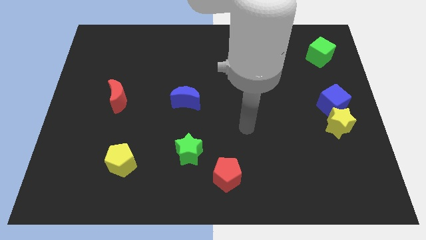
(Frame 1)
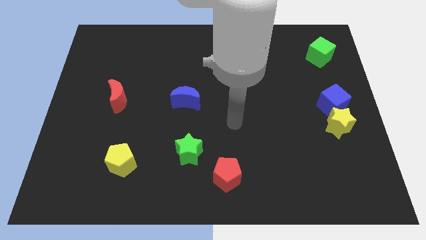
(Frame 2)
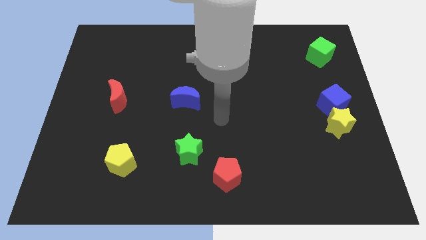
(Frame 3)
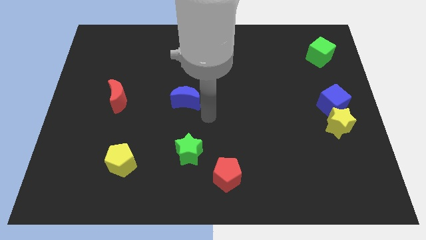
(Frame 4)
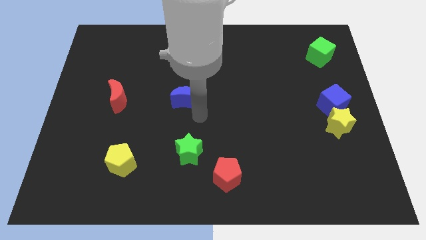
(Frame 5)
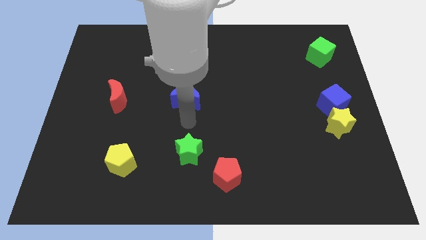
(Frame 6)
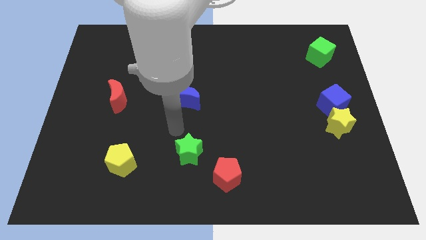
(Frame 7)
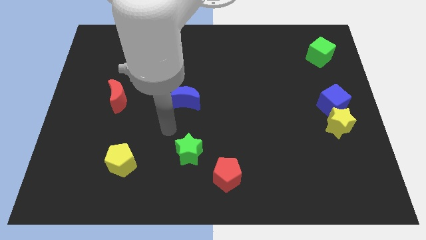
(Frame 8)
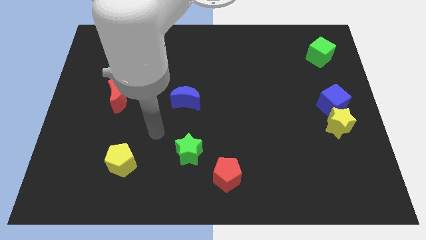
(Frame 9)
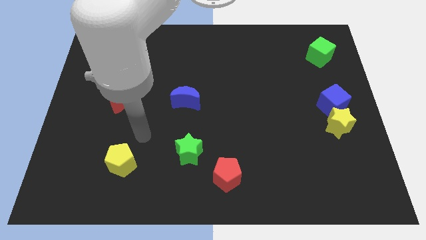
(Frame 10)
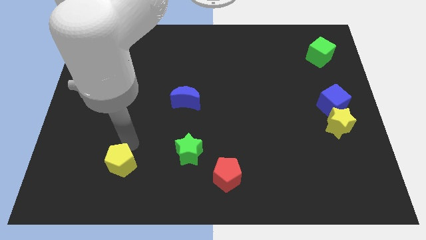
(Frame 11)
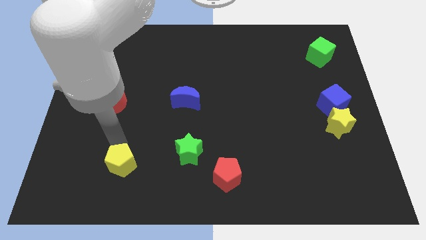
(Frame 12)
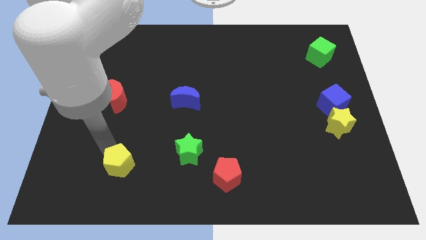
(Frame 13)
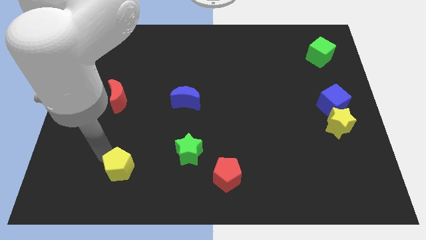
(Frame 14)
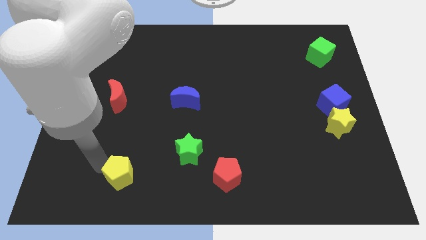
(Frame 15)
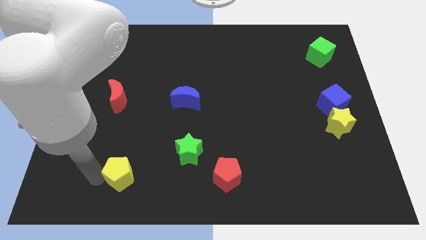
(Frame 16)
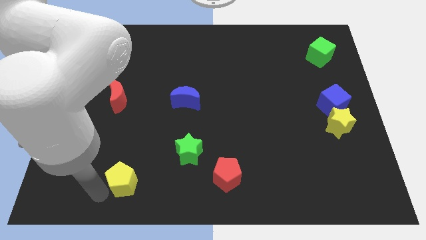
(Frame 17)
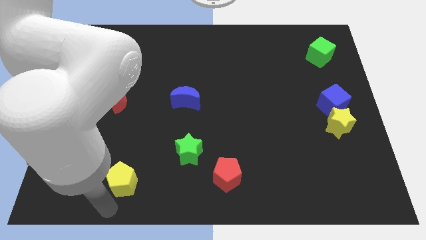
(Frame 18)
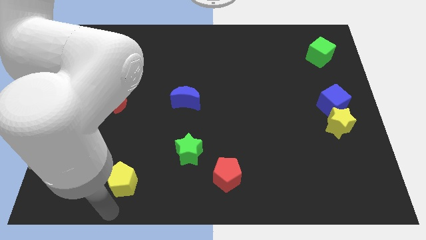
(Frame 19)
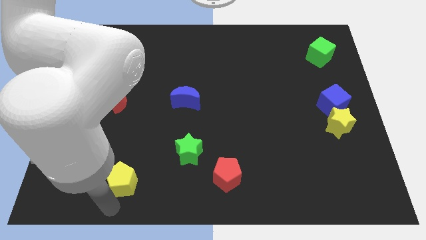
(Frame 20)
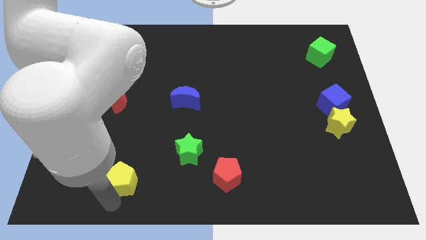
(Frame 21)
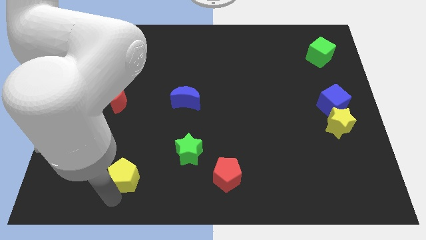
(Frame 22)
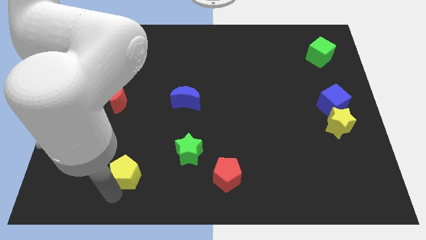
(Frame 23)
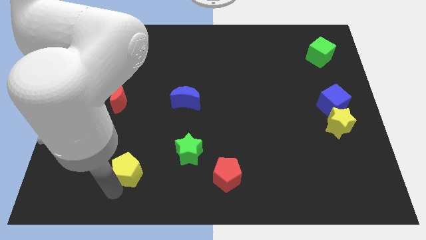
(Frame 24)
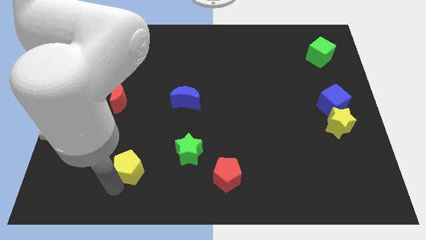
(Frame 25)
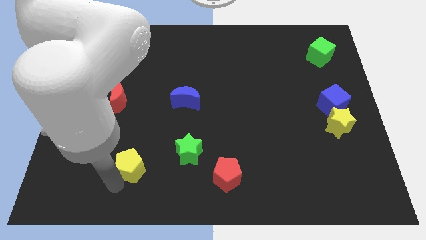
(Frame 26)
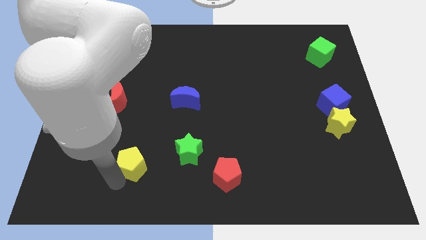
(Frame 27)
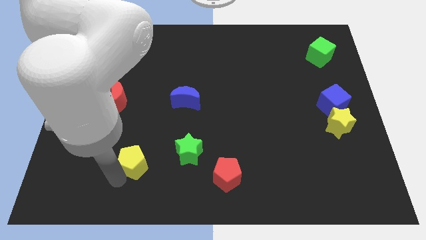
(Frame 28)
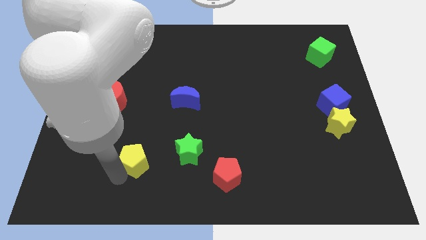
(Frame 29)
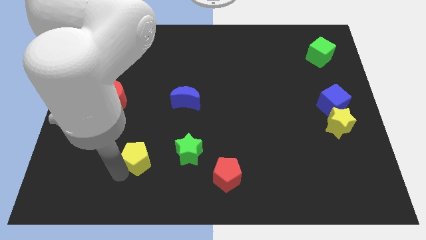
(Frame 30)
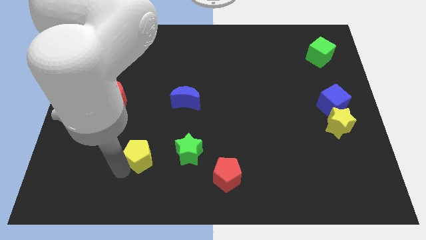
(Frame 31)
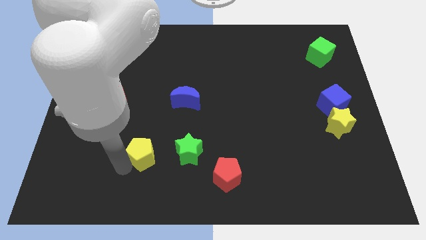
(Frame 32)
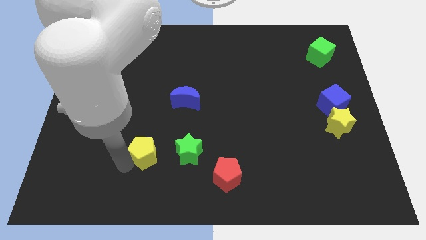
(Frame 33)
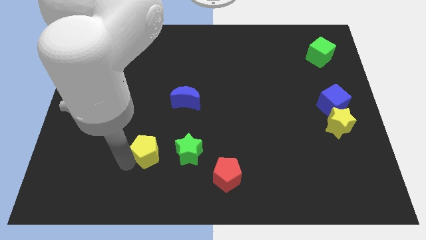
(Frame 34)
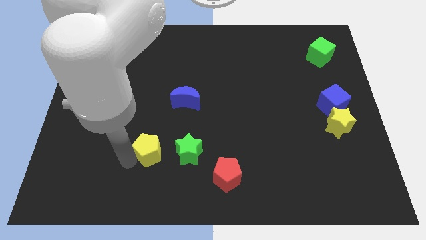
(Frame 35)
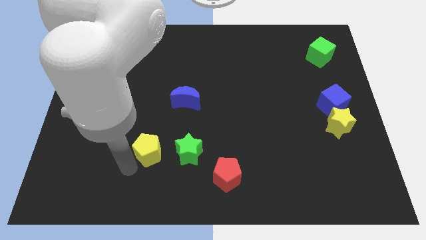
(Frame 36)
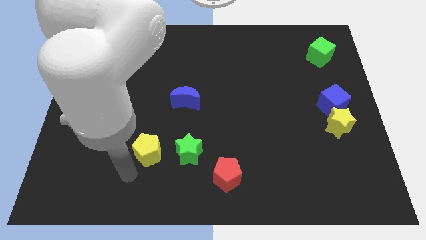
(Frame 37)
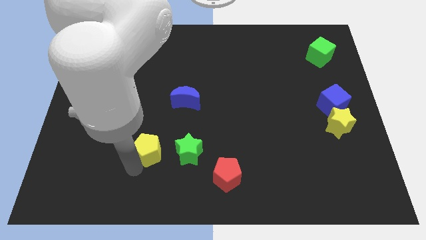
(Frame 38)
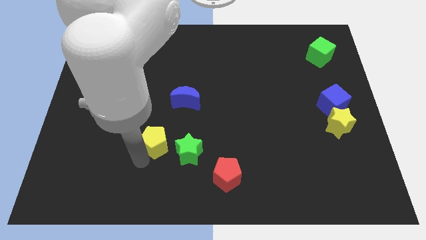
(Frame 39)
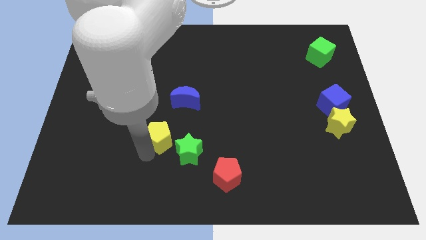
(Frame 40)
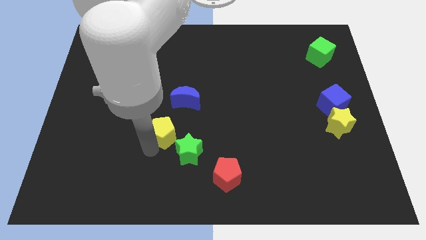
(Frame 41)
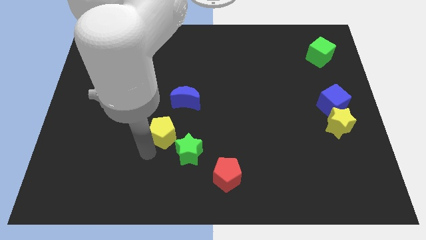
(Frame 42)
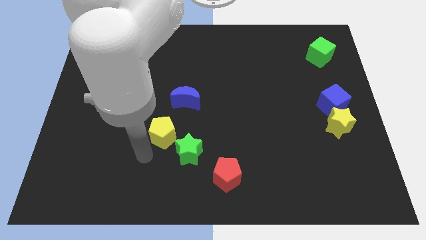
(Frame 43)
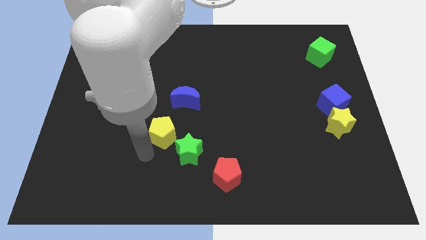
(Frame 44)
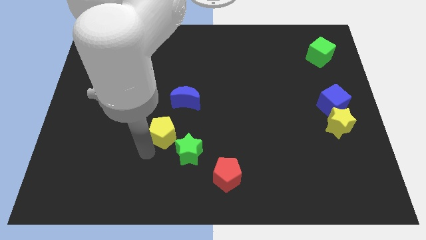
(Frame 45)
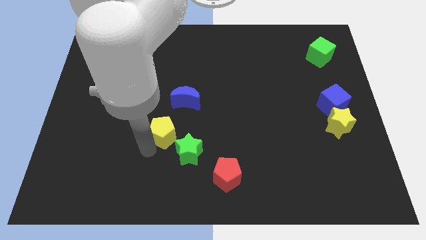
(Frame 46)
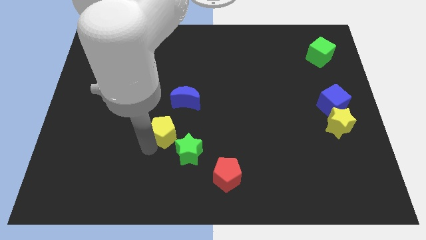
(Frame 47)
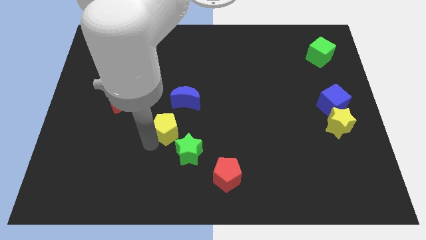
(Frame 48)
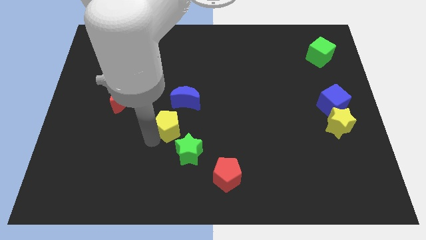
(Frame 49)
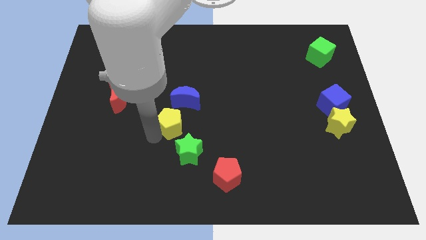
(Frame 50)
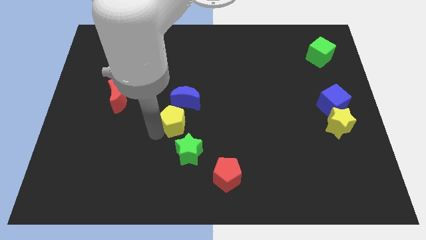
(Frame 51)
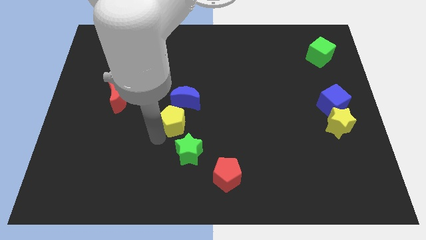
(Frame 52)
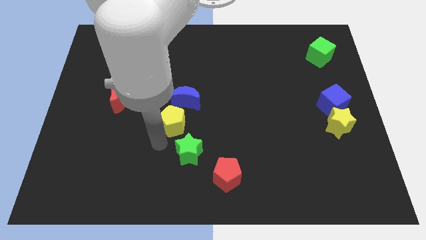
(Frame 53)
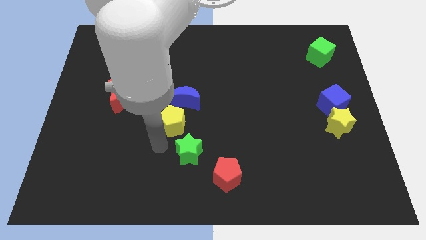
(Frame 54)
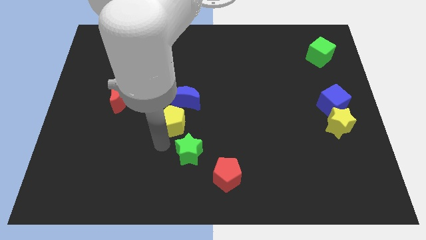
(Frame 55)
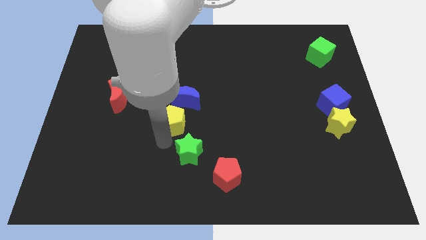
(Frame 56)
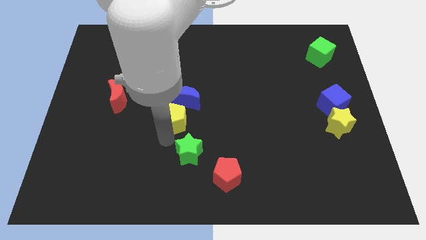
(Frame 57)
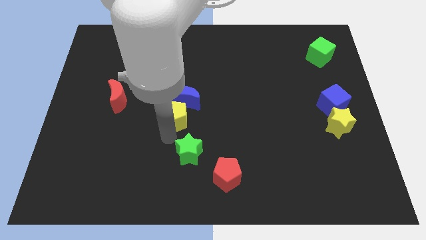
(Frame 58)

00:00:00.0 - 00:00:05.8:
push the yellow pentagon towards the blue moon

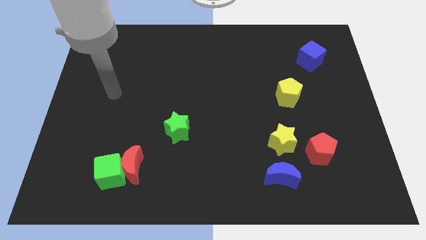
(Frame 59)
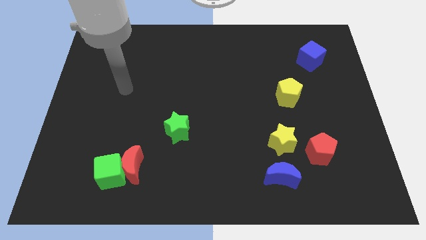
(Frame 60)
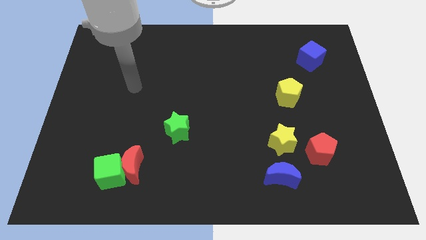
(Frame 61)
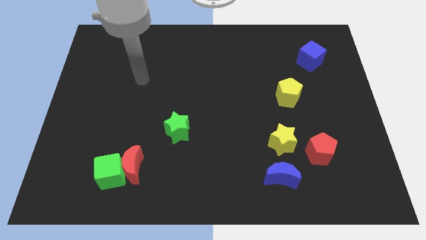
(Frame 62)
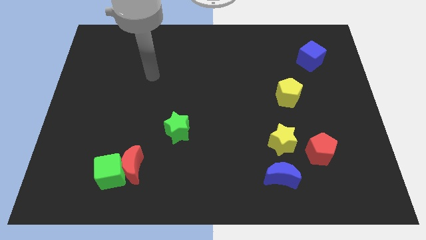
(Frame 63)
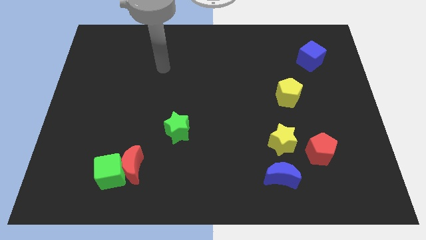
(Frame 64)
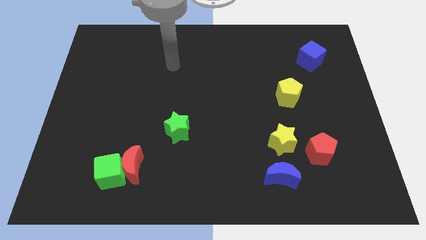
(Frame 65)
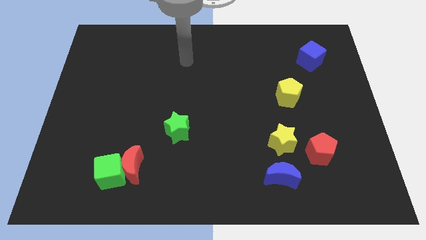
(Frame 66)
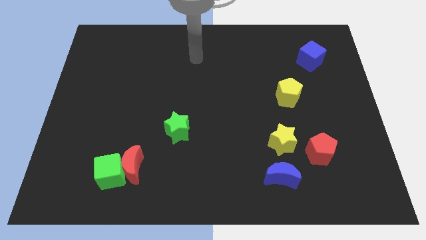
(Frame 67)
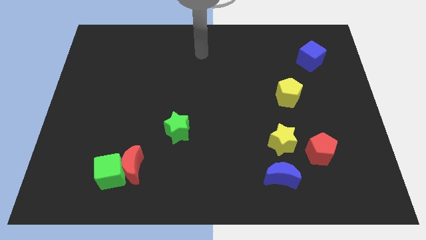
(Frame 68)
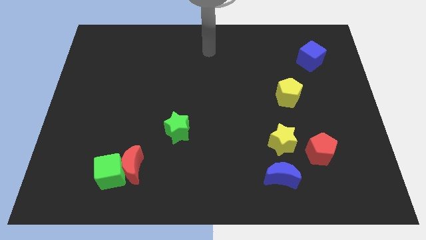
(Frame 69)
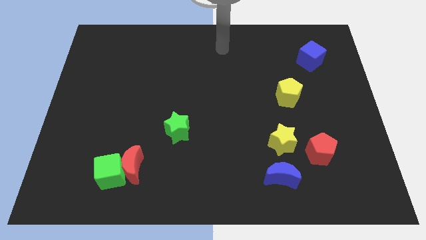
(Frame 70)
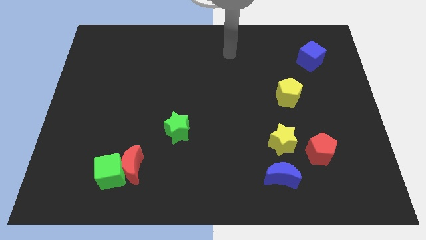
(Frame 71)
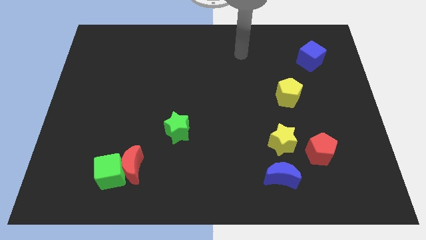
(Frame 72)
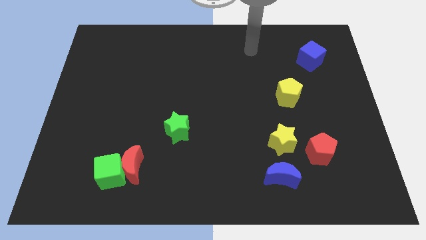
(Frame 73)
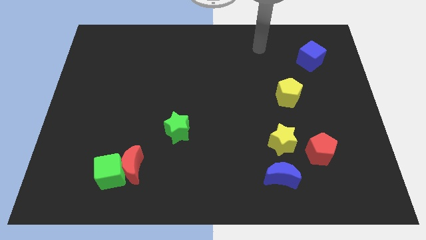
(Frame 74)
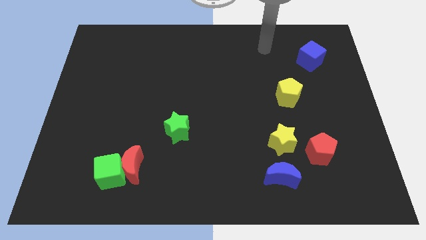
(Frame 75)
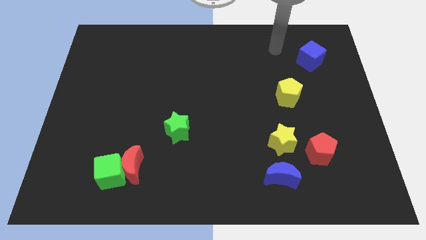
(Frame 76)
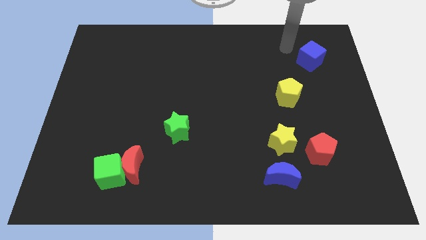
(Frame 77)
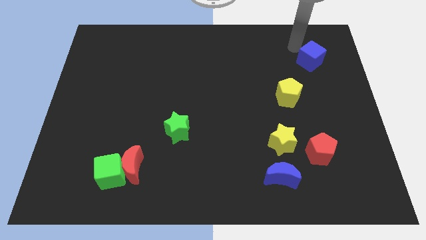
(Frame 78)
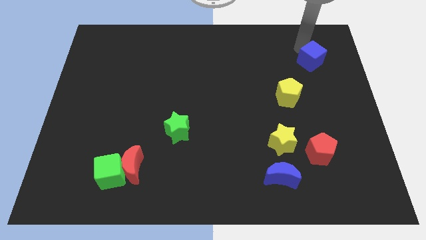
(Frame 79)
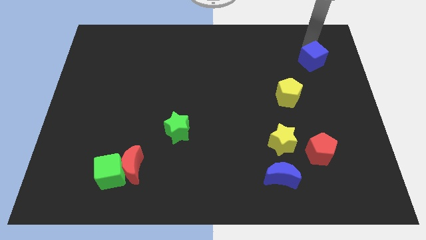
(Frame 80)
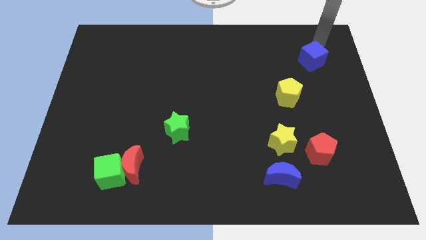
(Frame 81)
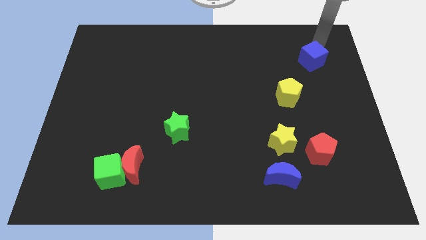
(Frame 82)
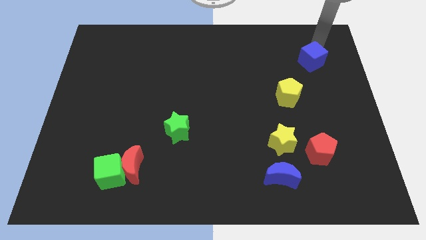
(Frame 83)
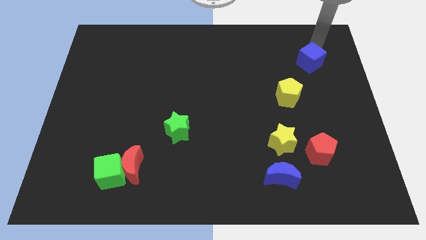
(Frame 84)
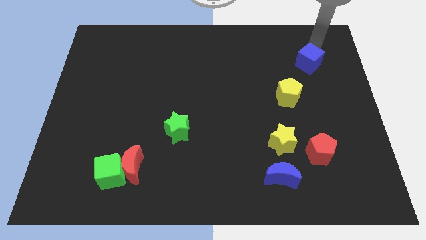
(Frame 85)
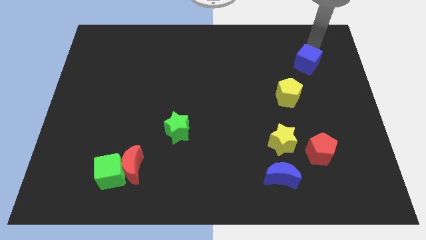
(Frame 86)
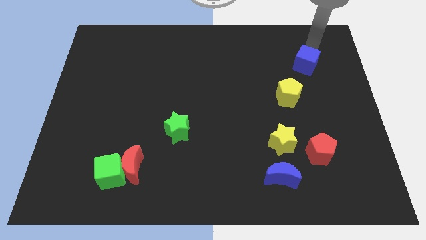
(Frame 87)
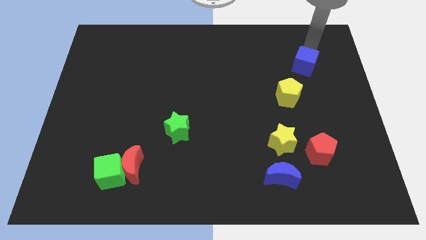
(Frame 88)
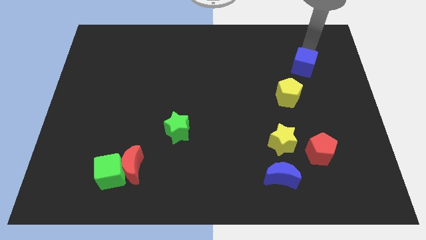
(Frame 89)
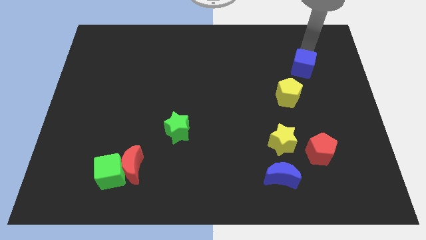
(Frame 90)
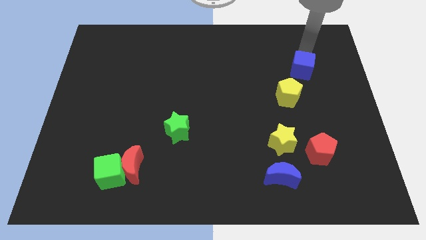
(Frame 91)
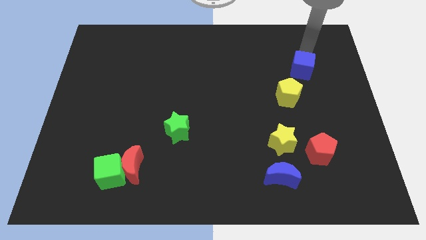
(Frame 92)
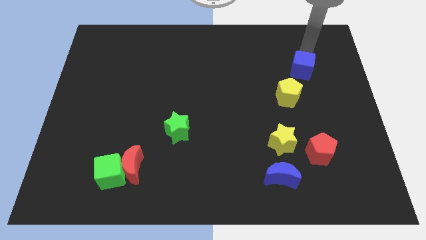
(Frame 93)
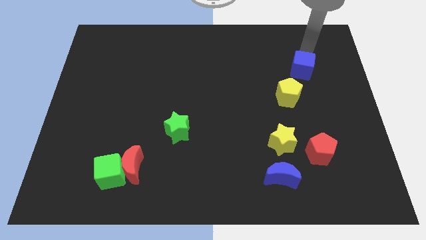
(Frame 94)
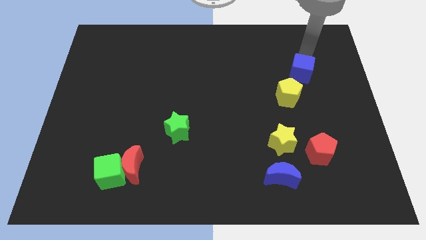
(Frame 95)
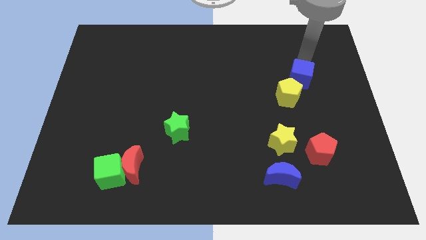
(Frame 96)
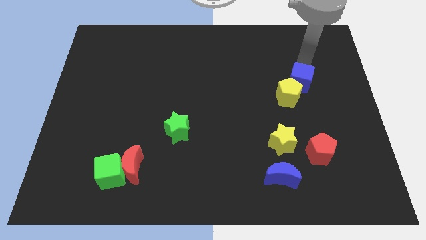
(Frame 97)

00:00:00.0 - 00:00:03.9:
move the blue cube towards the yellow pentagon
